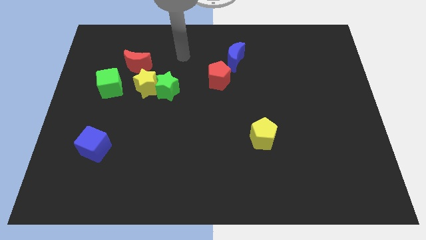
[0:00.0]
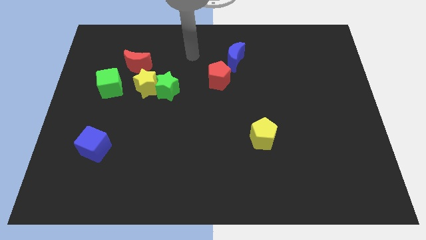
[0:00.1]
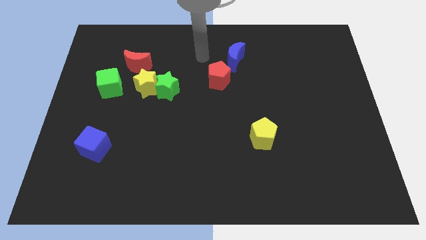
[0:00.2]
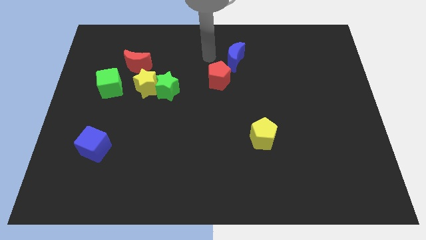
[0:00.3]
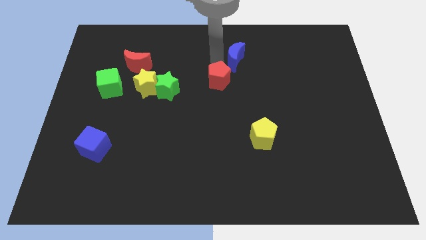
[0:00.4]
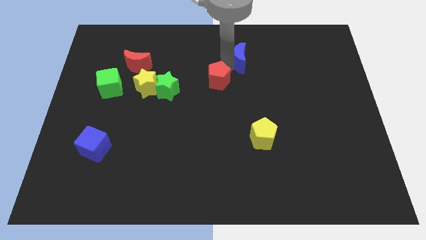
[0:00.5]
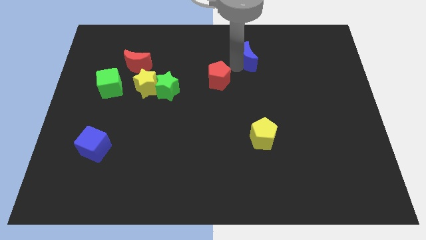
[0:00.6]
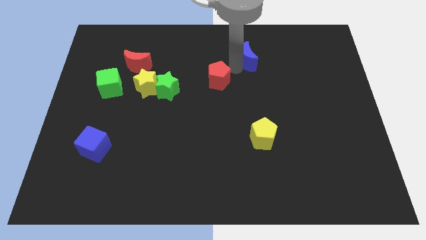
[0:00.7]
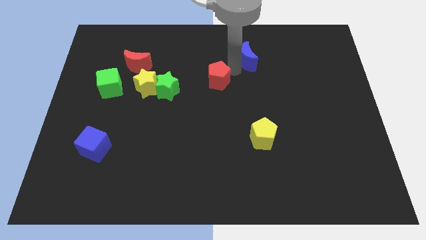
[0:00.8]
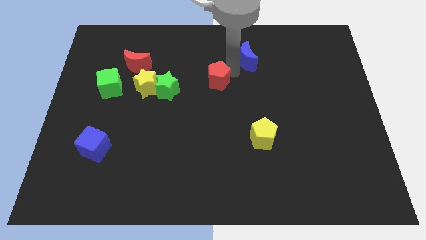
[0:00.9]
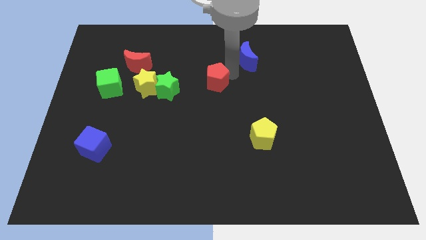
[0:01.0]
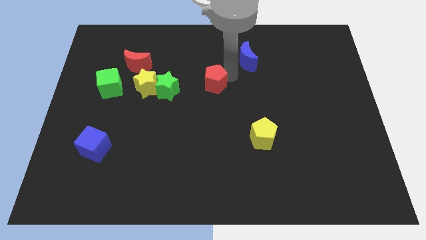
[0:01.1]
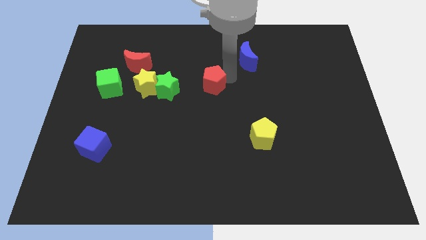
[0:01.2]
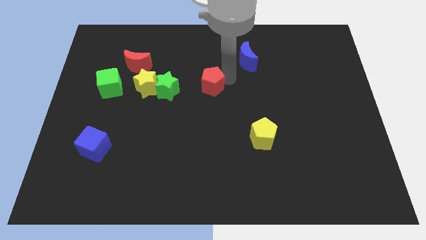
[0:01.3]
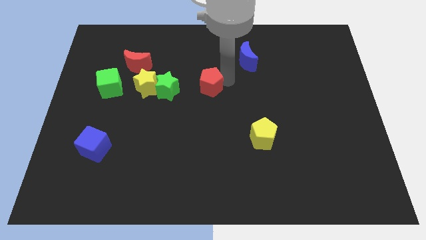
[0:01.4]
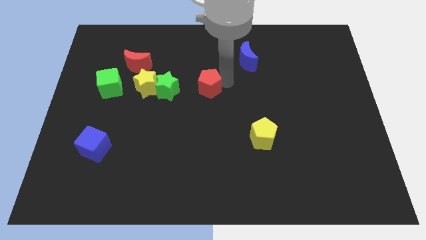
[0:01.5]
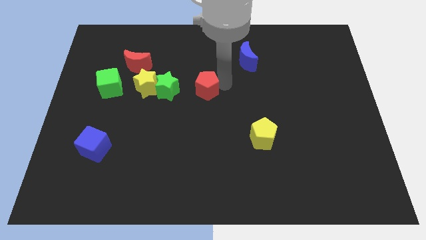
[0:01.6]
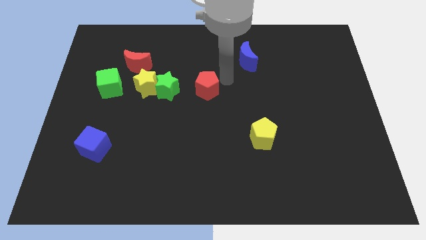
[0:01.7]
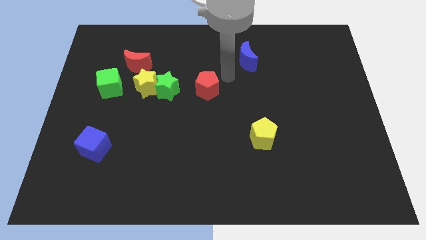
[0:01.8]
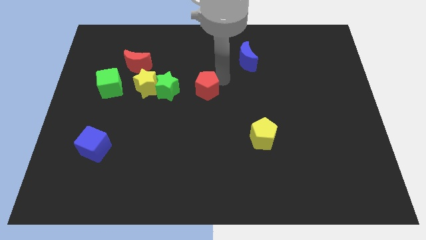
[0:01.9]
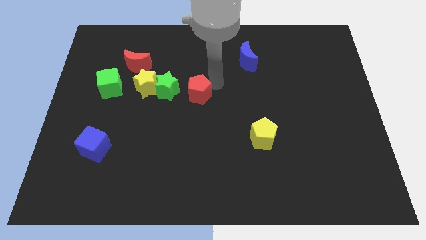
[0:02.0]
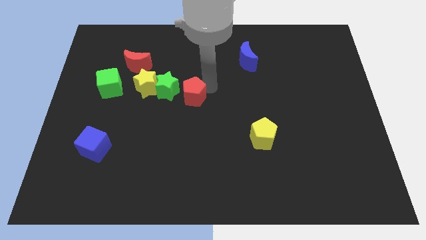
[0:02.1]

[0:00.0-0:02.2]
slide the red pentagon a bit down and then to the left

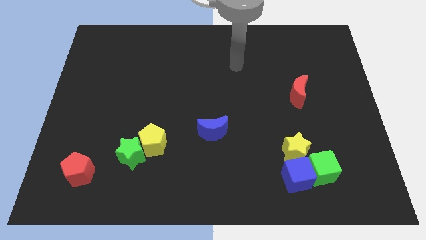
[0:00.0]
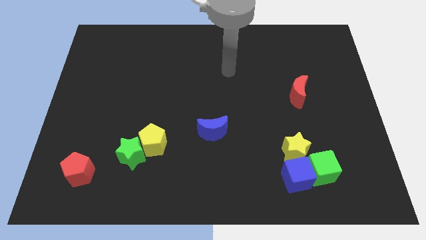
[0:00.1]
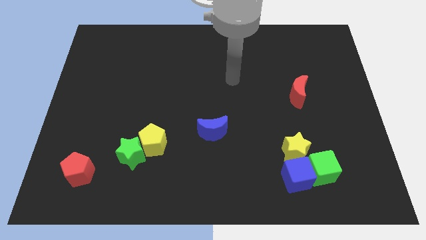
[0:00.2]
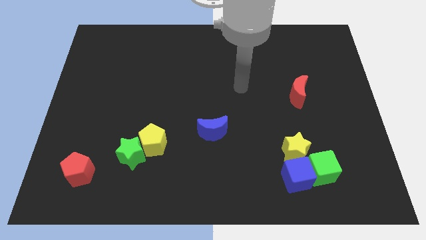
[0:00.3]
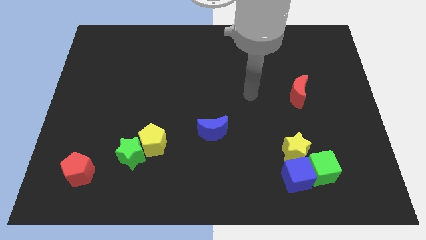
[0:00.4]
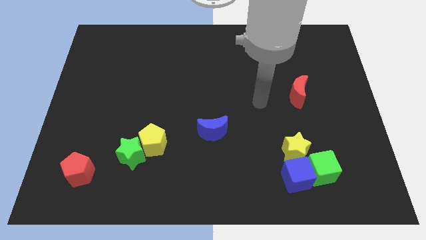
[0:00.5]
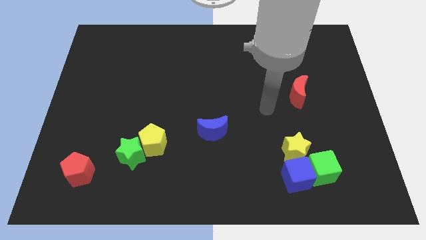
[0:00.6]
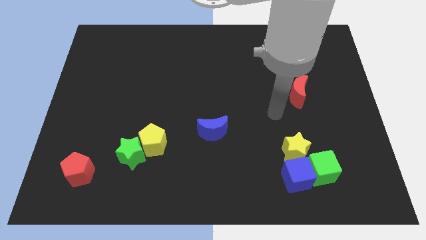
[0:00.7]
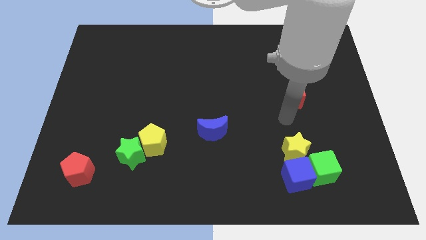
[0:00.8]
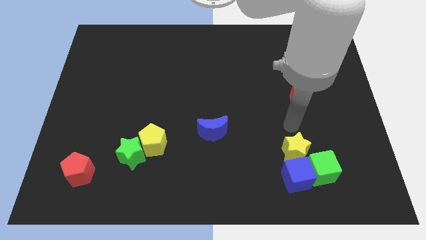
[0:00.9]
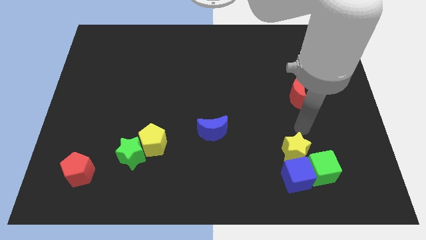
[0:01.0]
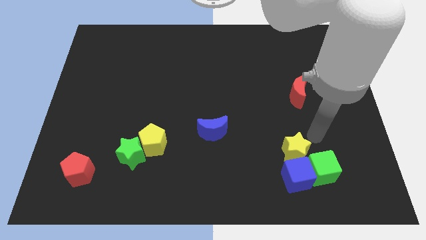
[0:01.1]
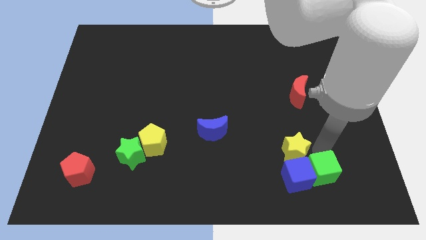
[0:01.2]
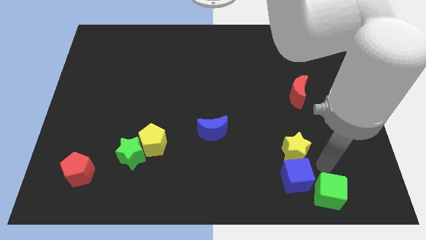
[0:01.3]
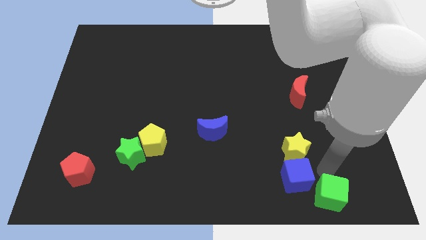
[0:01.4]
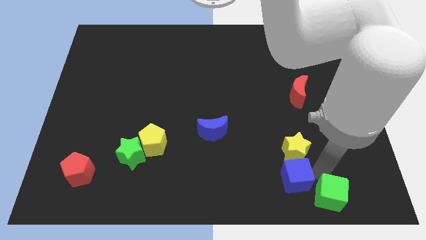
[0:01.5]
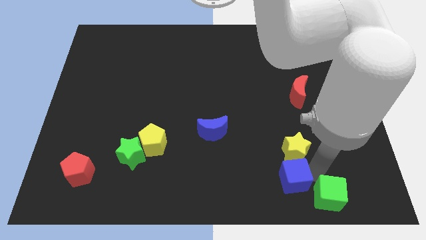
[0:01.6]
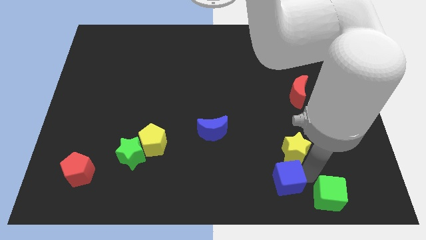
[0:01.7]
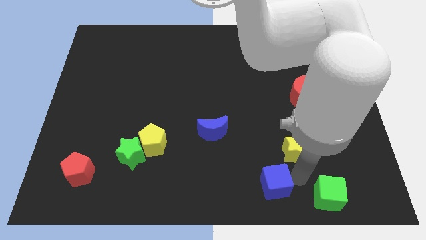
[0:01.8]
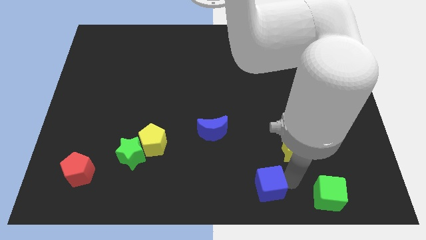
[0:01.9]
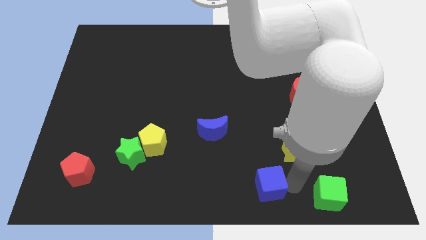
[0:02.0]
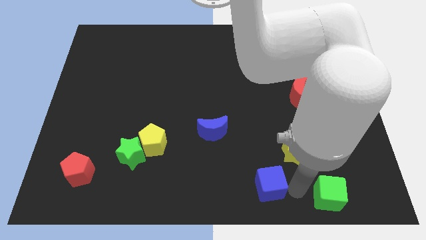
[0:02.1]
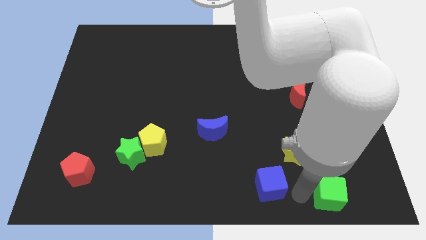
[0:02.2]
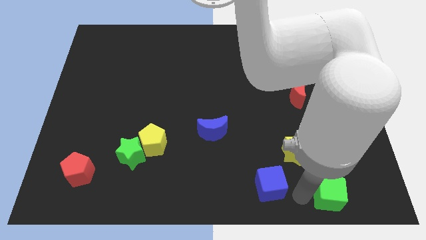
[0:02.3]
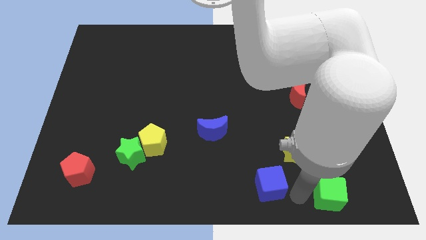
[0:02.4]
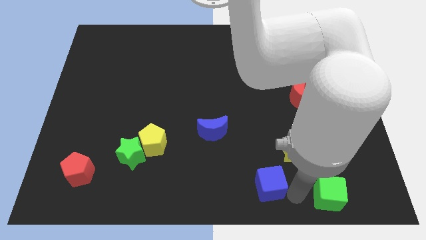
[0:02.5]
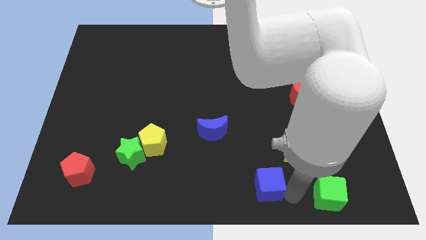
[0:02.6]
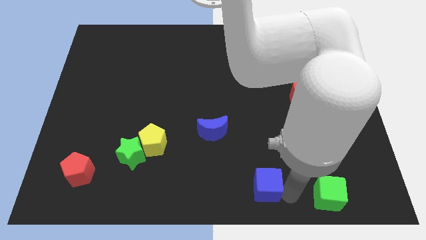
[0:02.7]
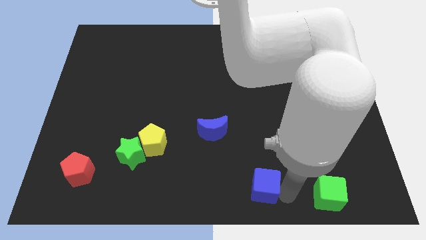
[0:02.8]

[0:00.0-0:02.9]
push the blue cube a bit to the left

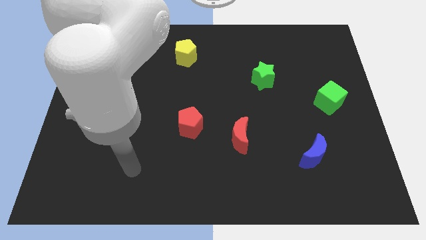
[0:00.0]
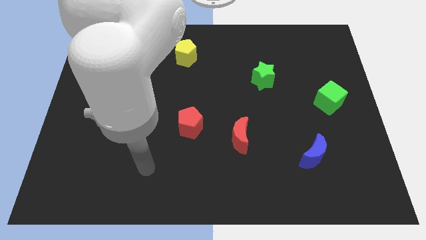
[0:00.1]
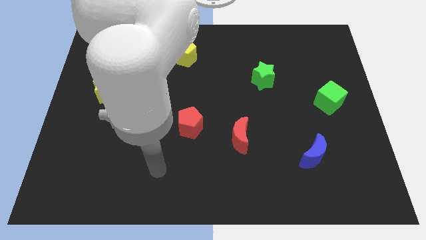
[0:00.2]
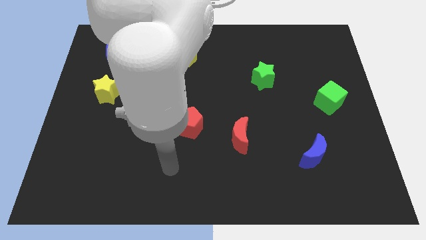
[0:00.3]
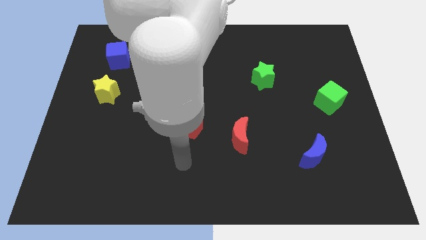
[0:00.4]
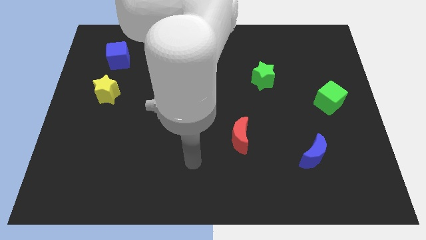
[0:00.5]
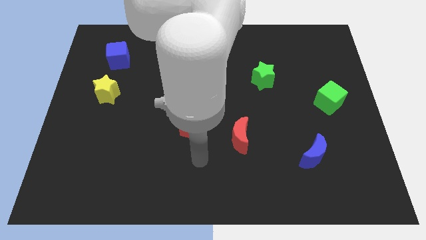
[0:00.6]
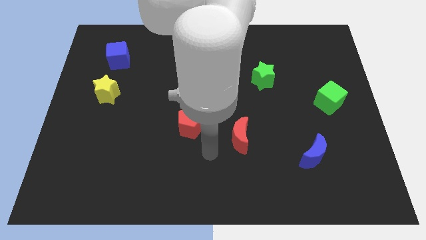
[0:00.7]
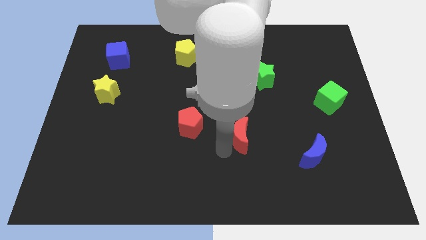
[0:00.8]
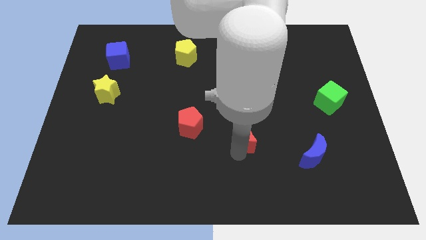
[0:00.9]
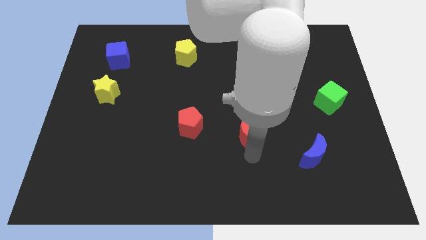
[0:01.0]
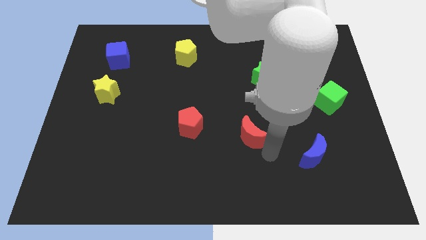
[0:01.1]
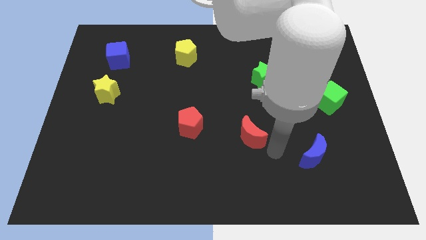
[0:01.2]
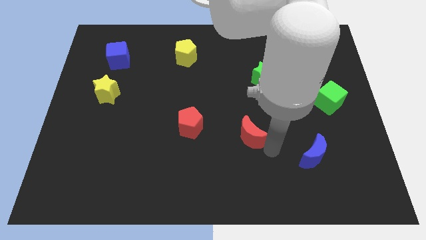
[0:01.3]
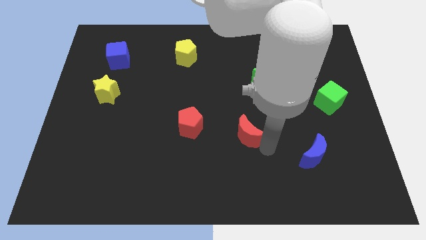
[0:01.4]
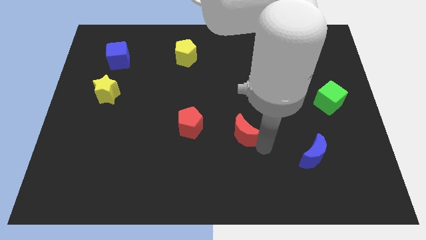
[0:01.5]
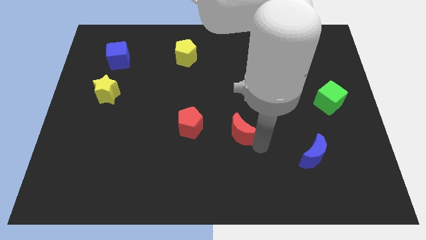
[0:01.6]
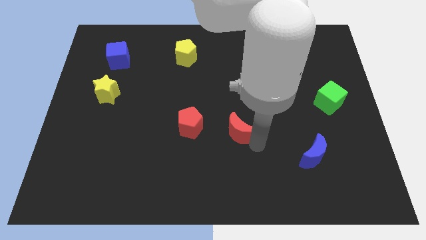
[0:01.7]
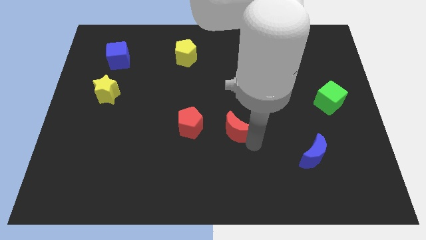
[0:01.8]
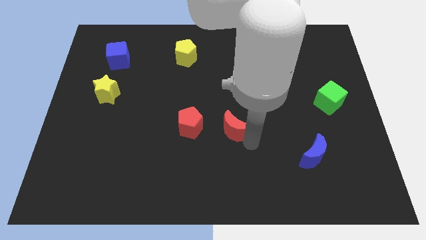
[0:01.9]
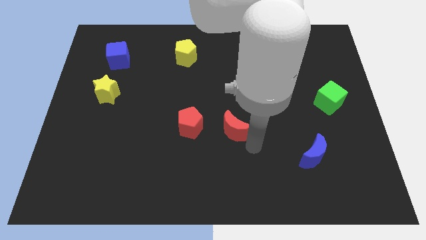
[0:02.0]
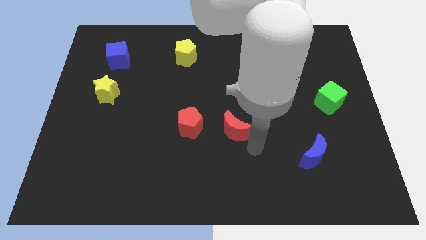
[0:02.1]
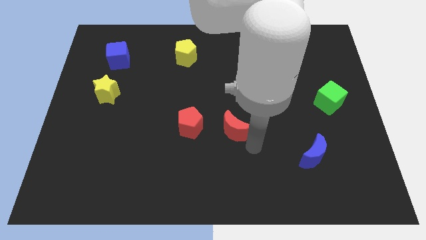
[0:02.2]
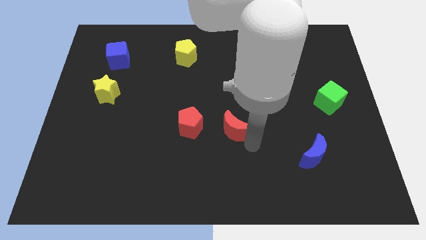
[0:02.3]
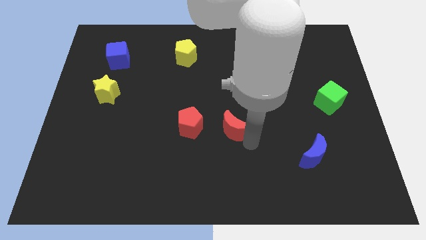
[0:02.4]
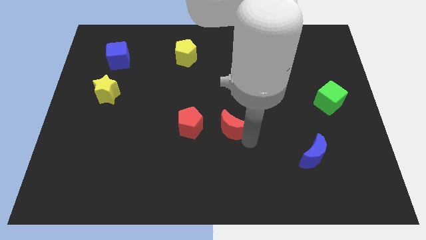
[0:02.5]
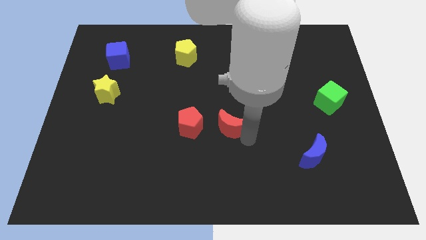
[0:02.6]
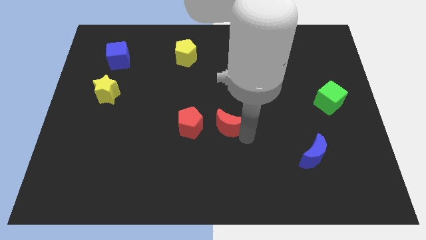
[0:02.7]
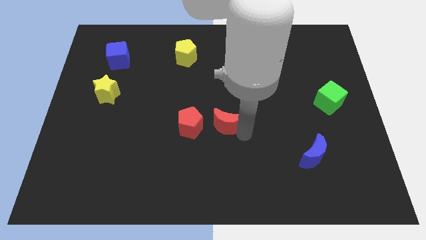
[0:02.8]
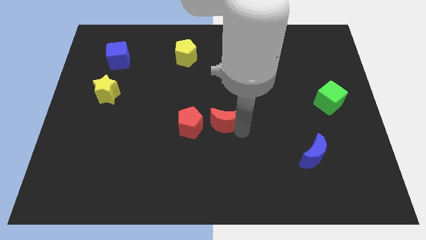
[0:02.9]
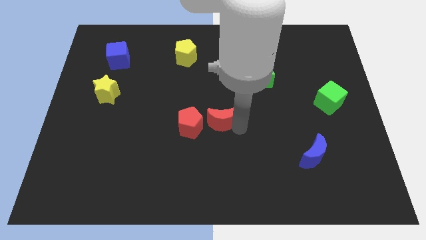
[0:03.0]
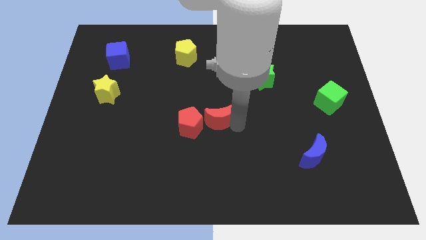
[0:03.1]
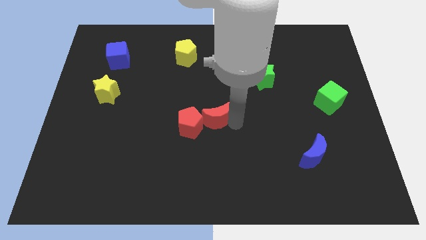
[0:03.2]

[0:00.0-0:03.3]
slide the red moon upwards and to the left somewhat

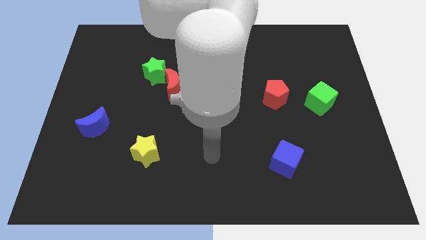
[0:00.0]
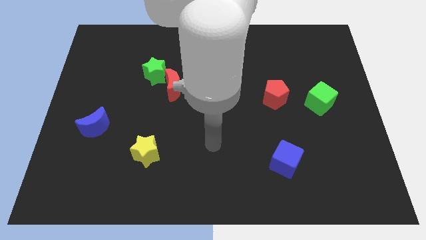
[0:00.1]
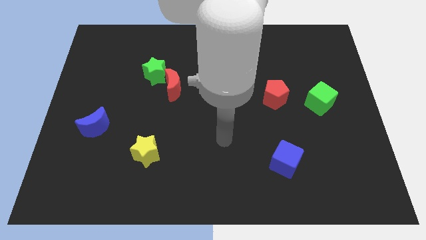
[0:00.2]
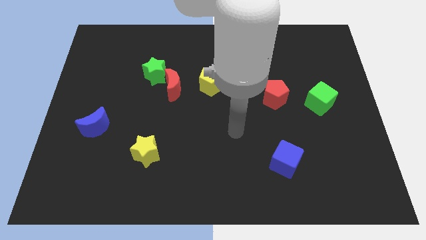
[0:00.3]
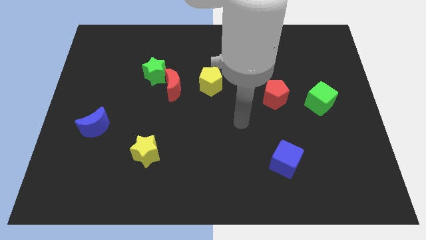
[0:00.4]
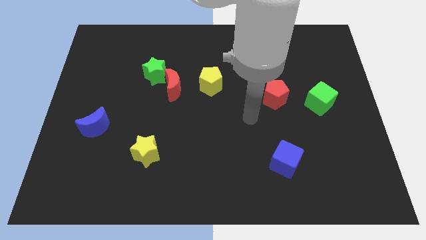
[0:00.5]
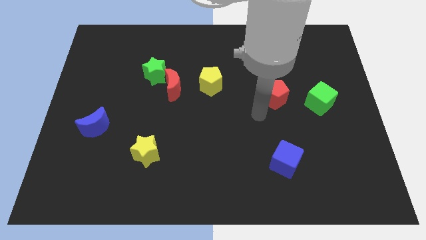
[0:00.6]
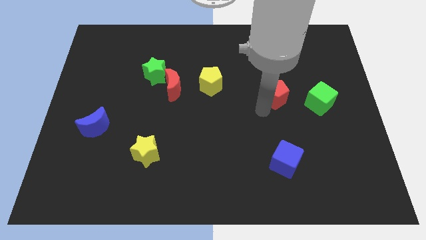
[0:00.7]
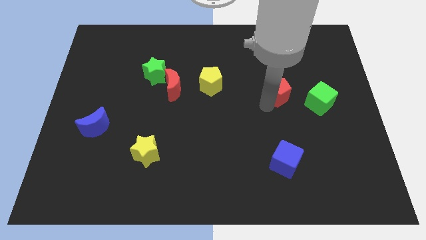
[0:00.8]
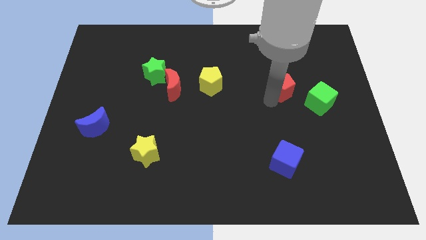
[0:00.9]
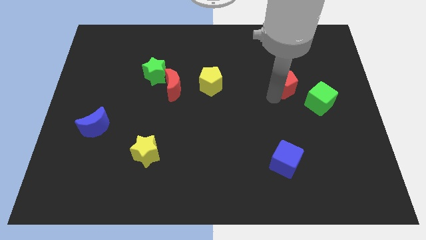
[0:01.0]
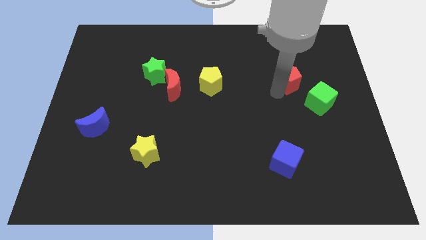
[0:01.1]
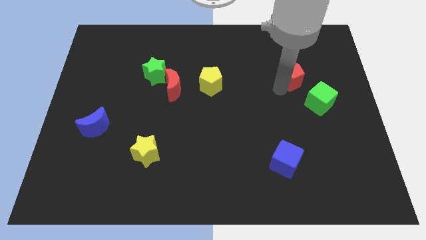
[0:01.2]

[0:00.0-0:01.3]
slightly push the red pentagon upwards and right
